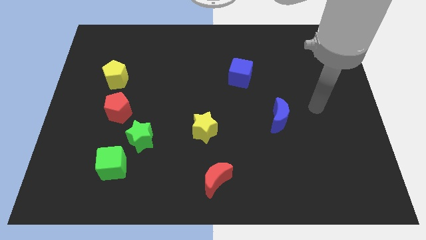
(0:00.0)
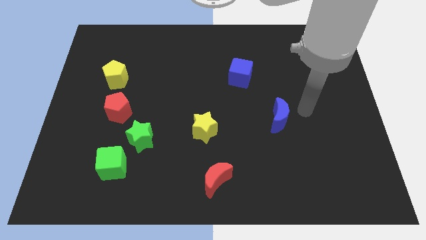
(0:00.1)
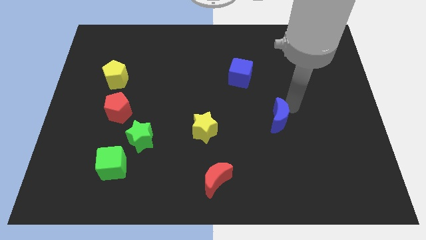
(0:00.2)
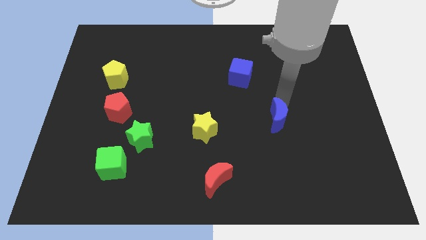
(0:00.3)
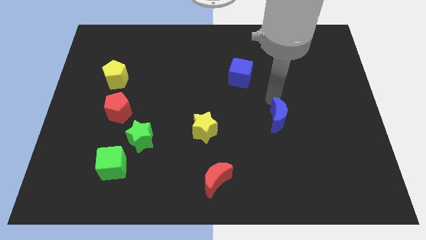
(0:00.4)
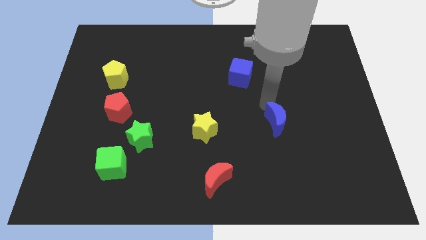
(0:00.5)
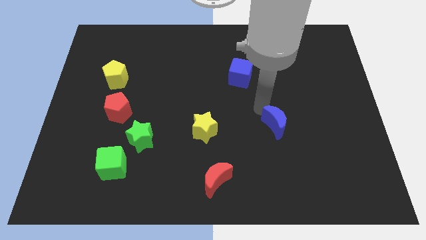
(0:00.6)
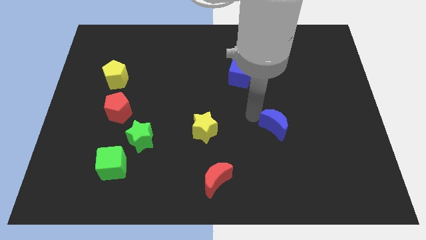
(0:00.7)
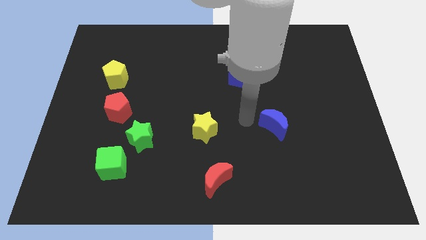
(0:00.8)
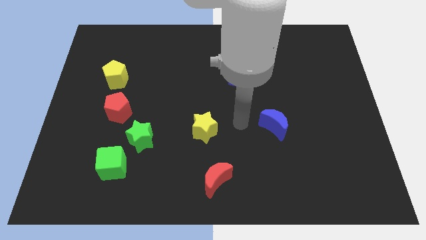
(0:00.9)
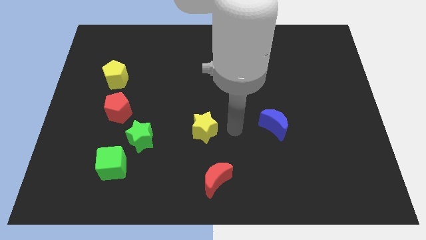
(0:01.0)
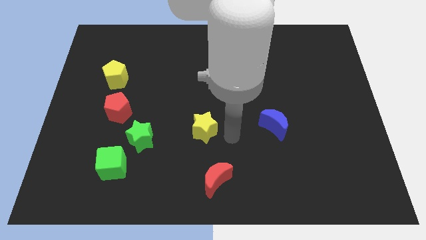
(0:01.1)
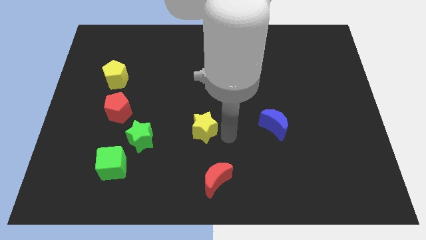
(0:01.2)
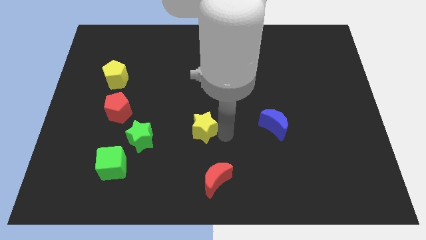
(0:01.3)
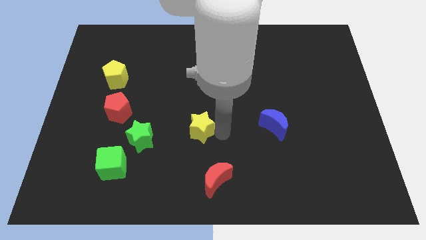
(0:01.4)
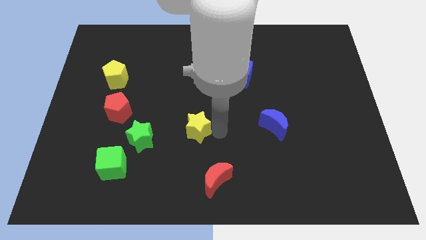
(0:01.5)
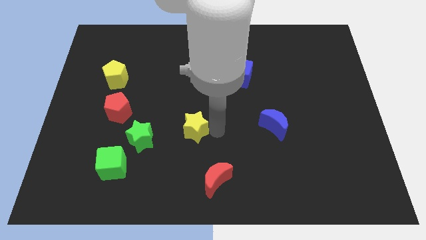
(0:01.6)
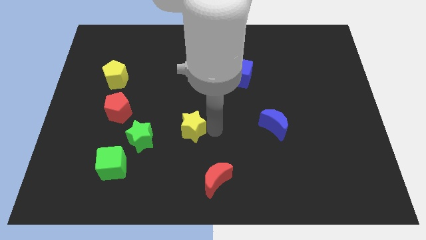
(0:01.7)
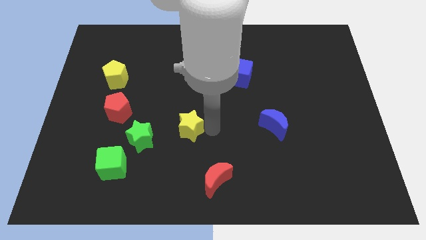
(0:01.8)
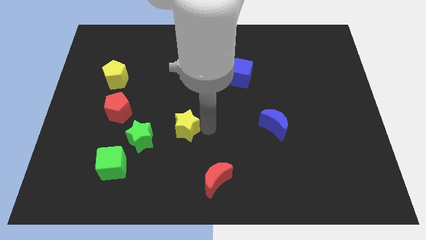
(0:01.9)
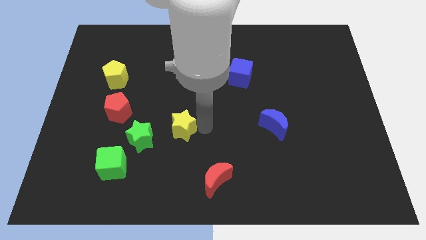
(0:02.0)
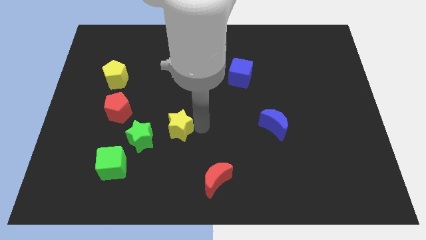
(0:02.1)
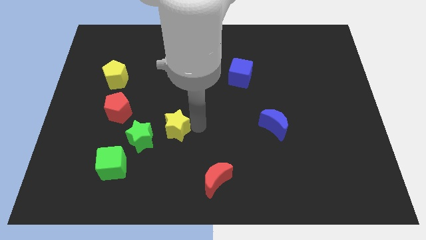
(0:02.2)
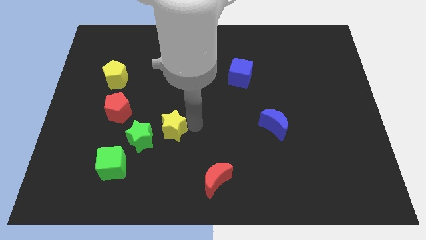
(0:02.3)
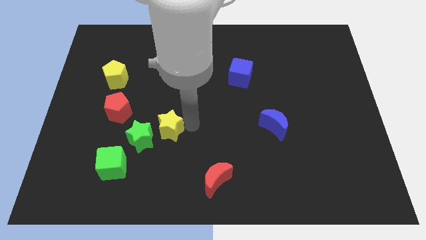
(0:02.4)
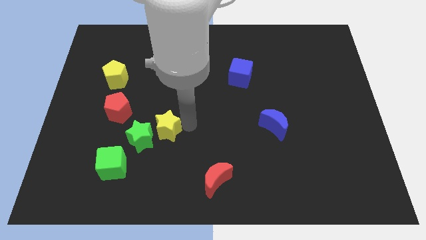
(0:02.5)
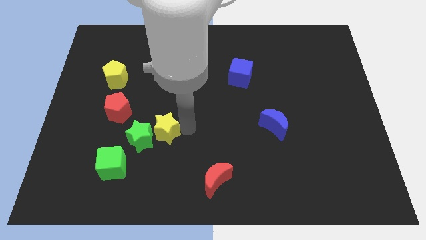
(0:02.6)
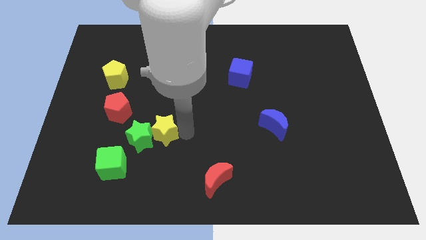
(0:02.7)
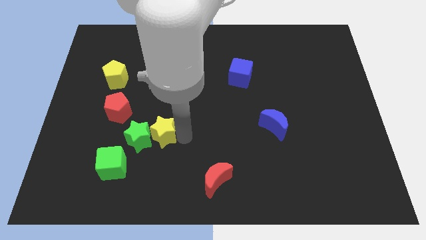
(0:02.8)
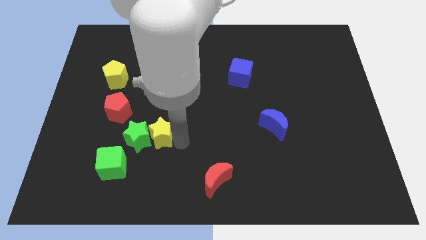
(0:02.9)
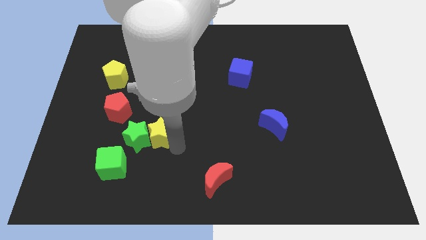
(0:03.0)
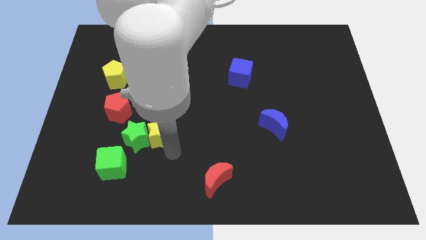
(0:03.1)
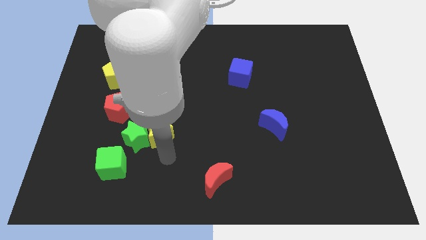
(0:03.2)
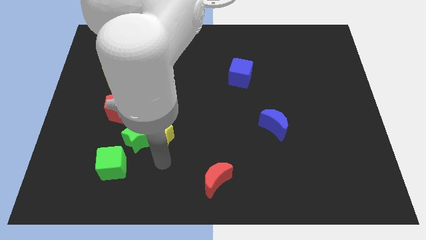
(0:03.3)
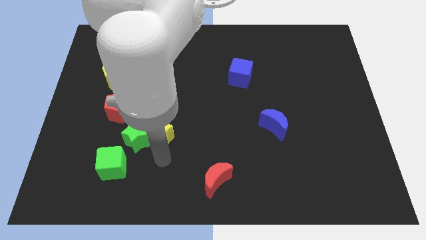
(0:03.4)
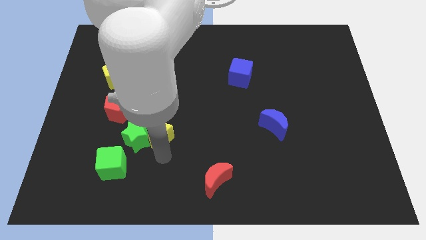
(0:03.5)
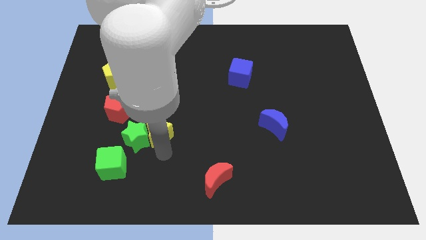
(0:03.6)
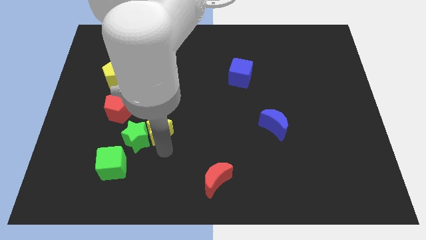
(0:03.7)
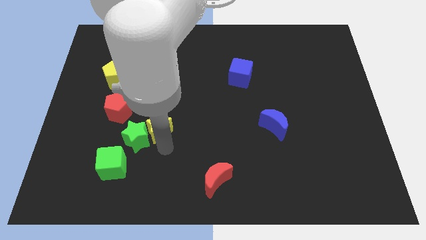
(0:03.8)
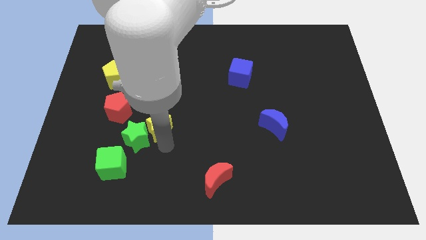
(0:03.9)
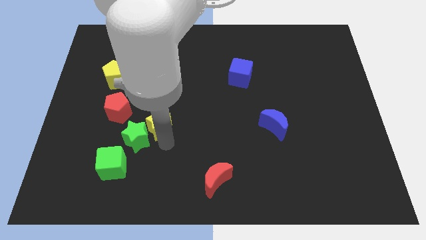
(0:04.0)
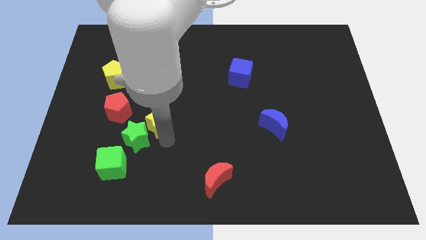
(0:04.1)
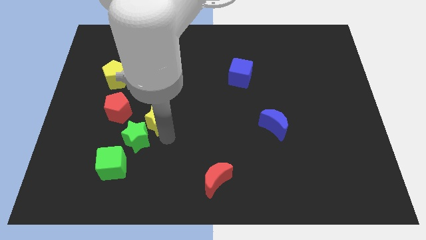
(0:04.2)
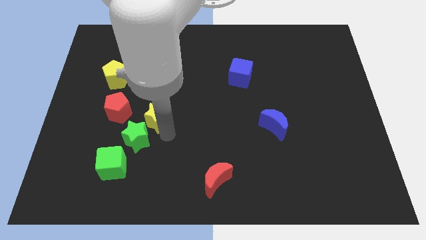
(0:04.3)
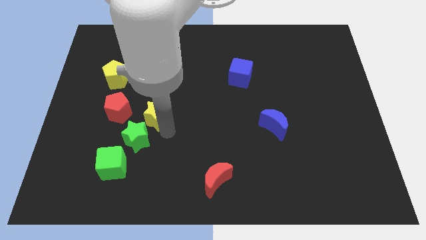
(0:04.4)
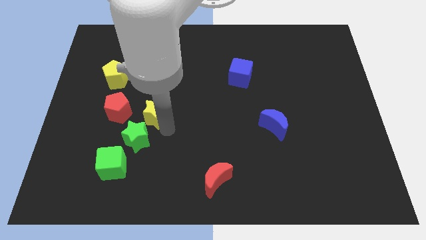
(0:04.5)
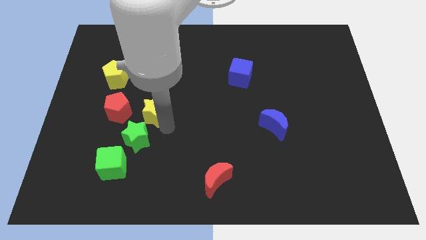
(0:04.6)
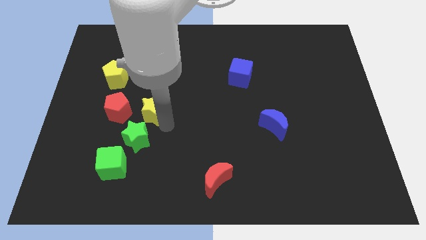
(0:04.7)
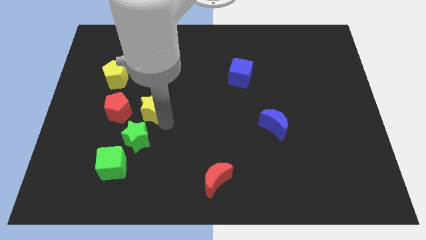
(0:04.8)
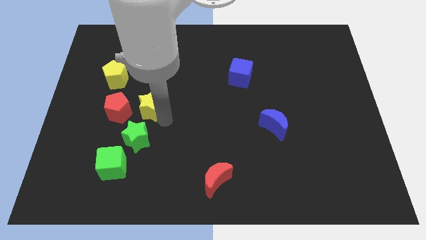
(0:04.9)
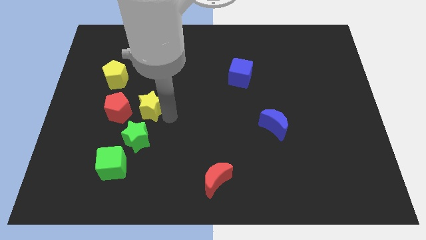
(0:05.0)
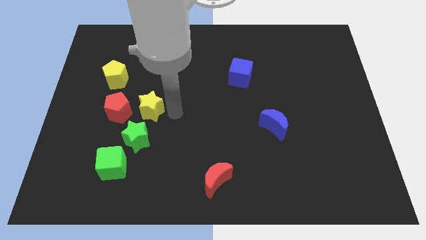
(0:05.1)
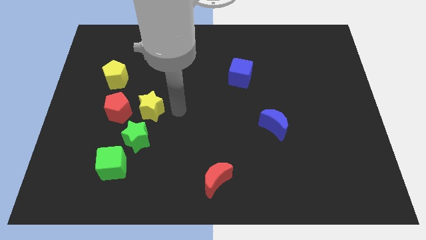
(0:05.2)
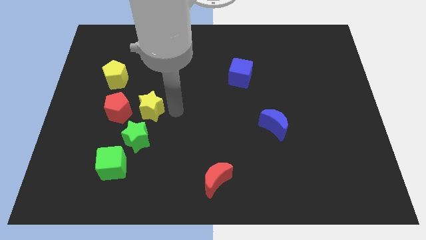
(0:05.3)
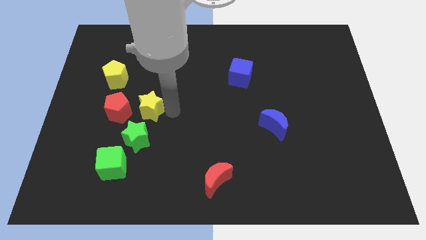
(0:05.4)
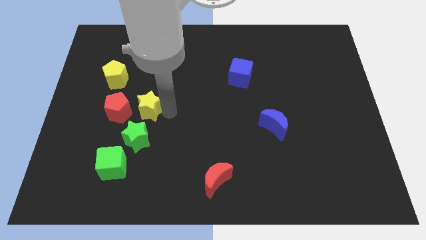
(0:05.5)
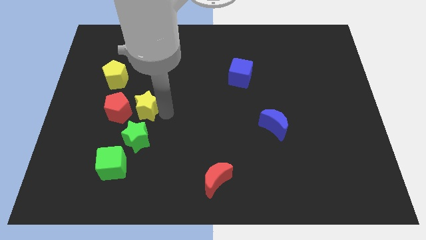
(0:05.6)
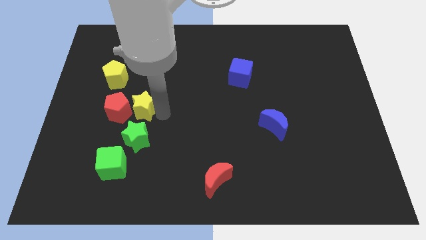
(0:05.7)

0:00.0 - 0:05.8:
put the yellow star towards the red pentagon

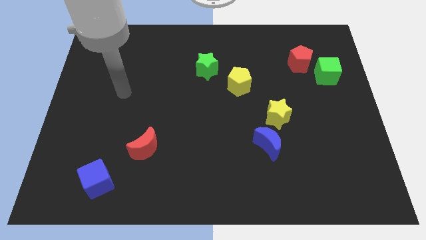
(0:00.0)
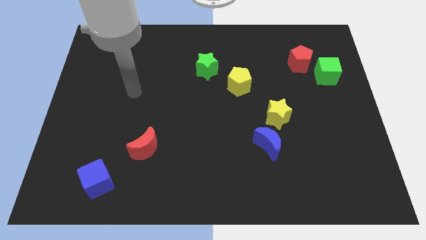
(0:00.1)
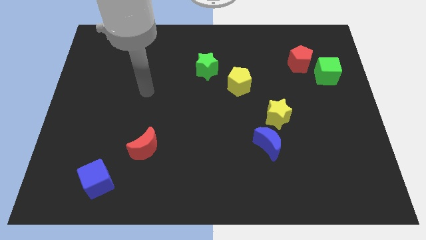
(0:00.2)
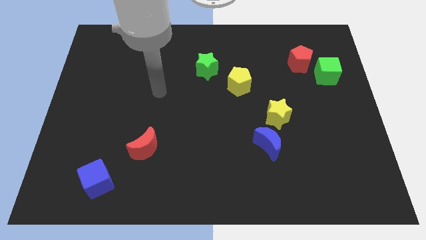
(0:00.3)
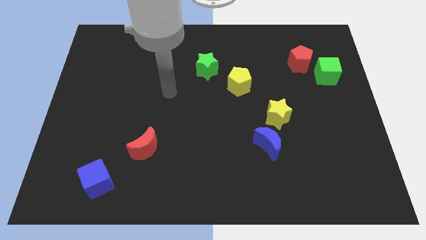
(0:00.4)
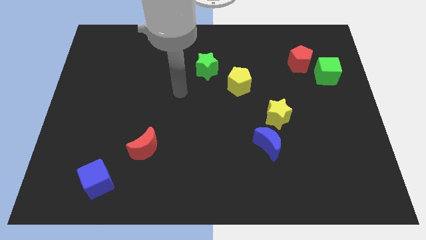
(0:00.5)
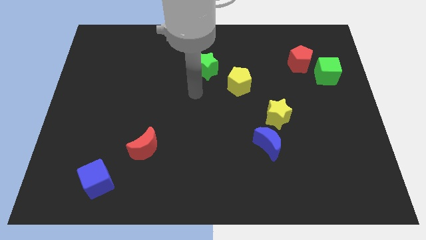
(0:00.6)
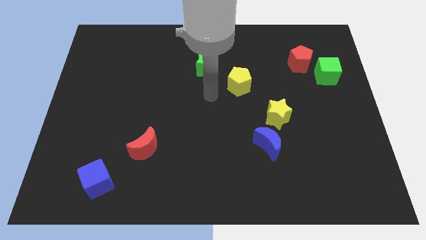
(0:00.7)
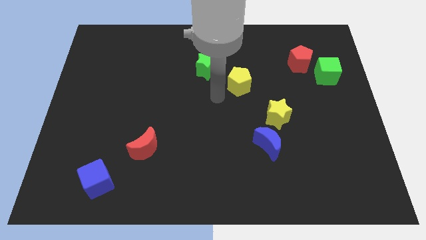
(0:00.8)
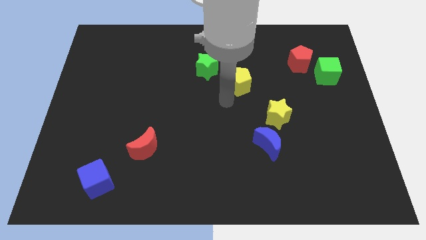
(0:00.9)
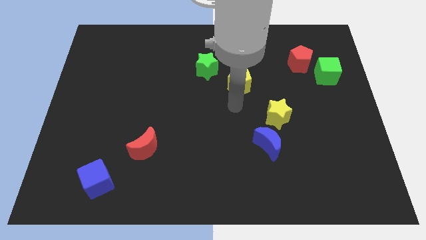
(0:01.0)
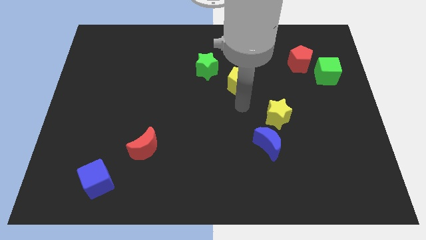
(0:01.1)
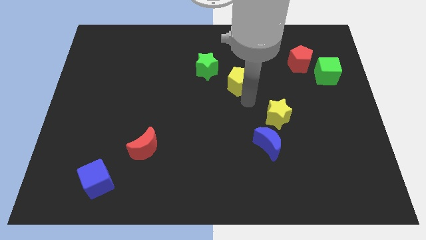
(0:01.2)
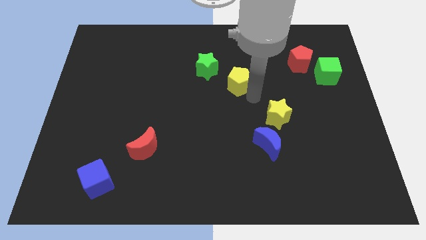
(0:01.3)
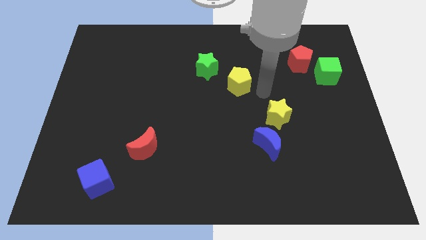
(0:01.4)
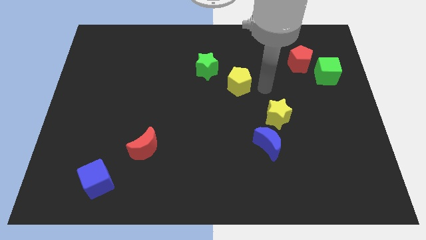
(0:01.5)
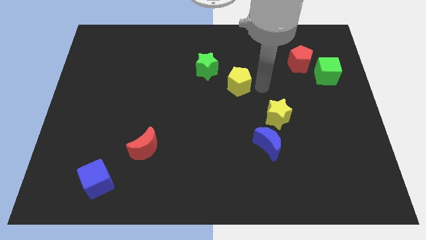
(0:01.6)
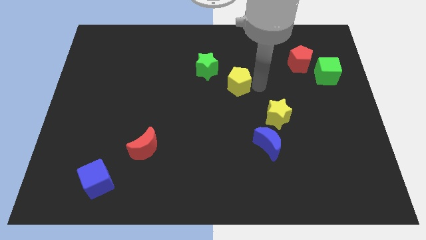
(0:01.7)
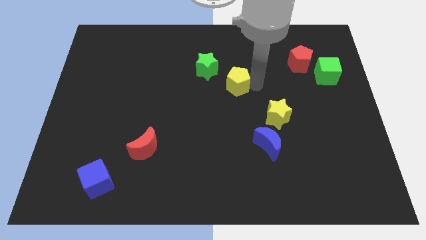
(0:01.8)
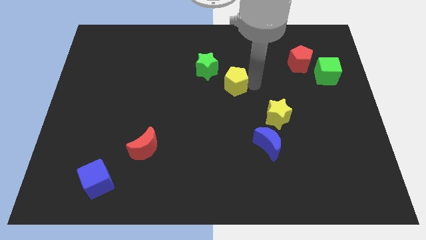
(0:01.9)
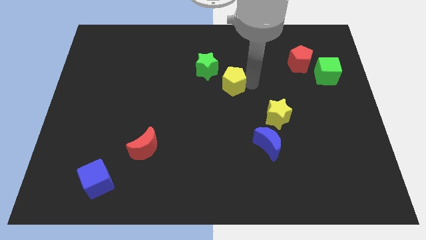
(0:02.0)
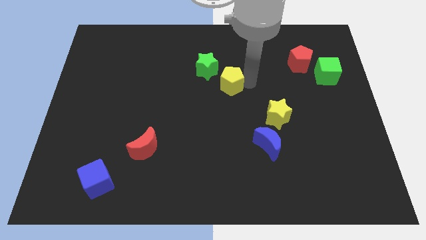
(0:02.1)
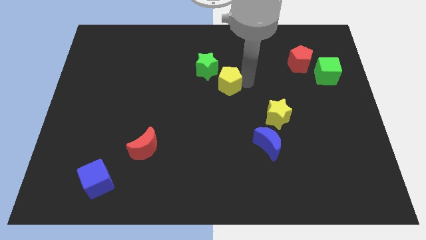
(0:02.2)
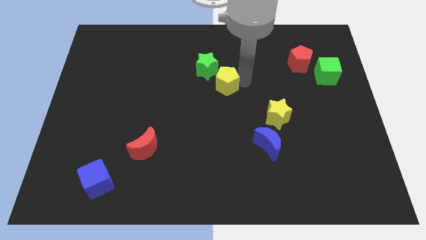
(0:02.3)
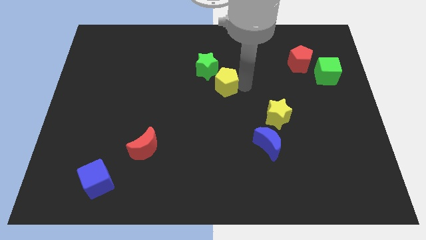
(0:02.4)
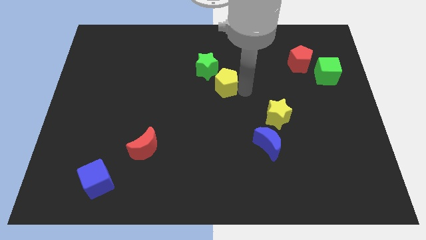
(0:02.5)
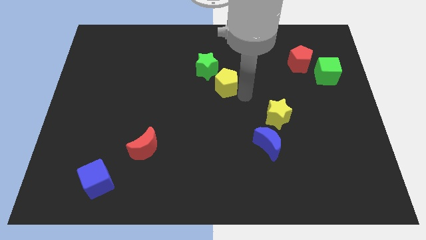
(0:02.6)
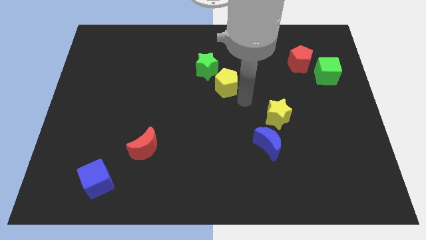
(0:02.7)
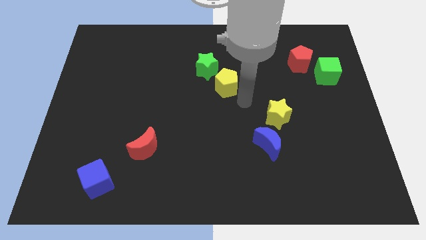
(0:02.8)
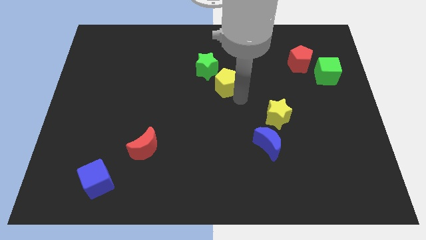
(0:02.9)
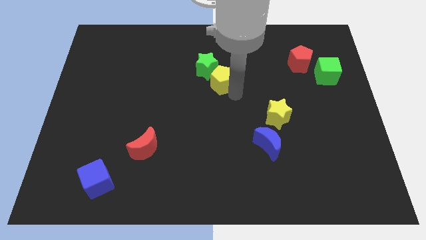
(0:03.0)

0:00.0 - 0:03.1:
move the yellow pentagon close to the green star
